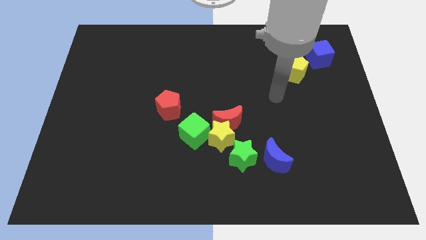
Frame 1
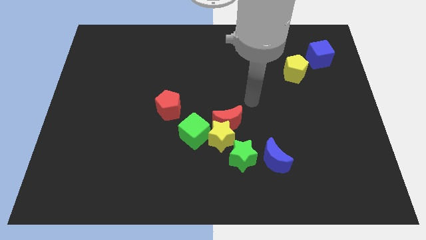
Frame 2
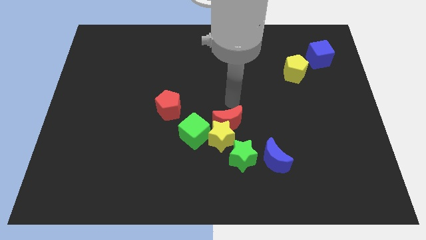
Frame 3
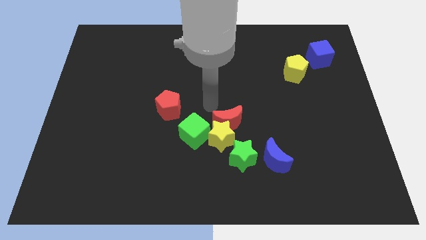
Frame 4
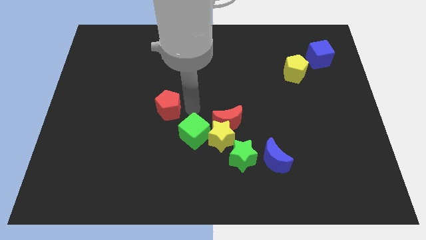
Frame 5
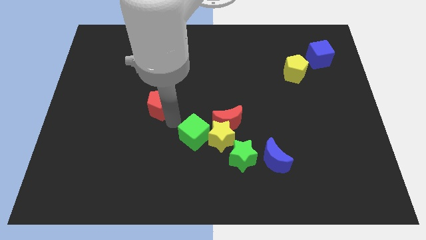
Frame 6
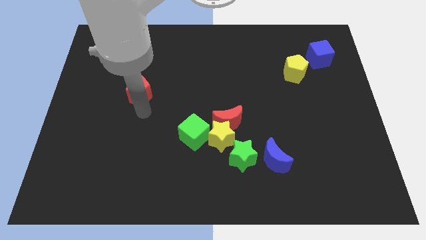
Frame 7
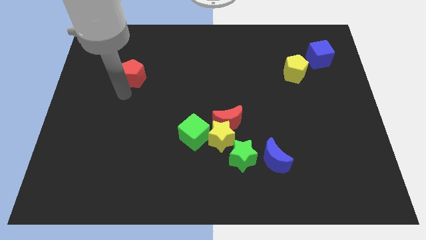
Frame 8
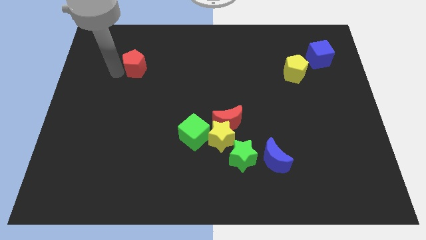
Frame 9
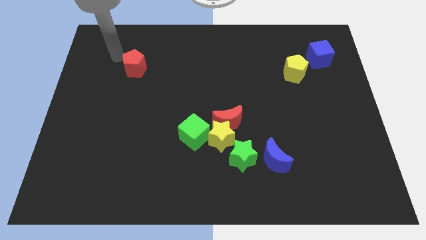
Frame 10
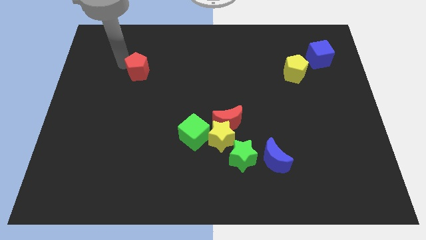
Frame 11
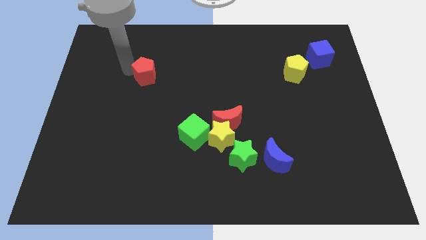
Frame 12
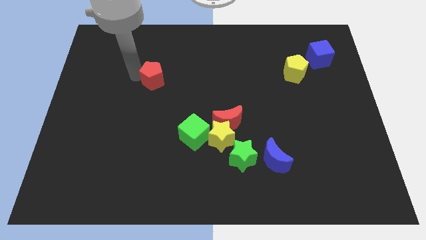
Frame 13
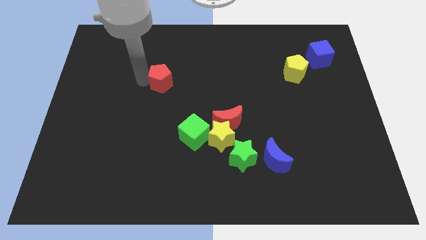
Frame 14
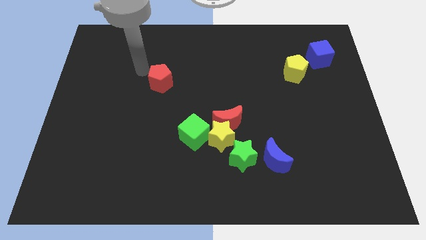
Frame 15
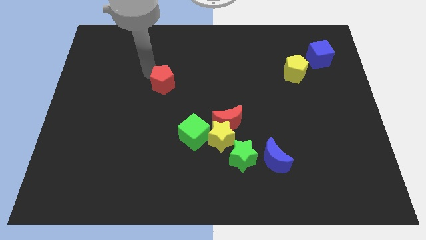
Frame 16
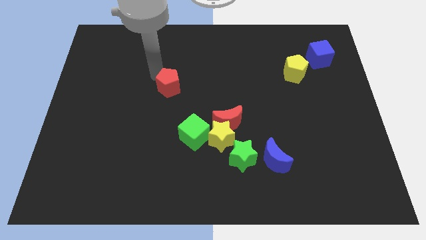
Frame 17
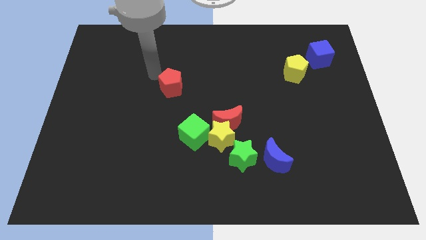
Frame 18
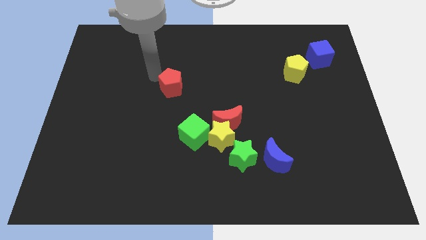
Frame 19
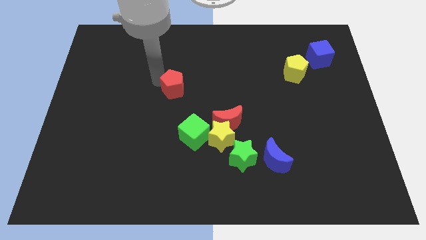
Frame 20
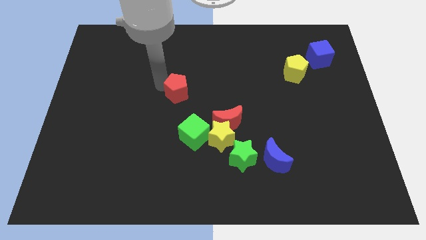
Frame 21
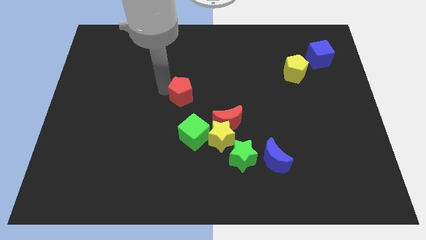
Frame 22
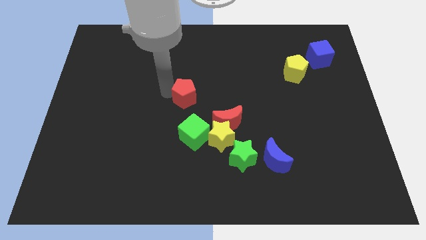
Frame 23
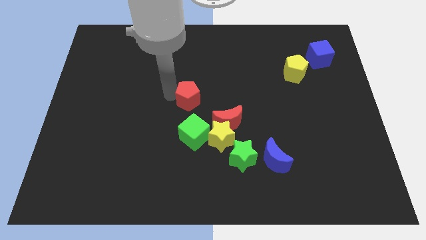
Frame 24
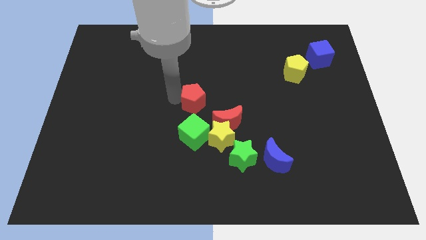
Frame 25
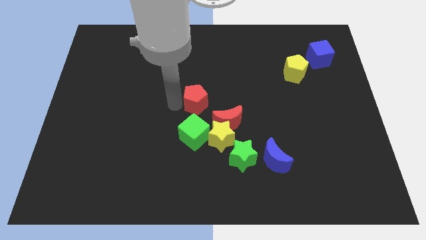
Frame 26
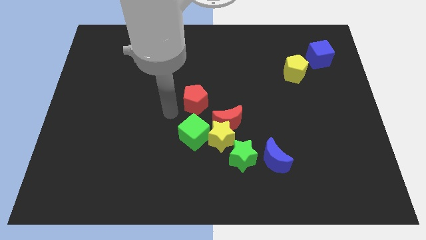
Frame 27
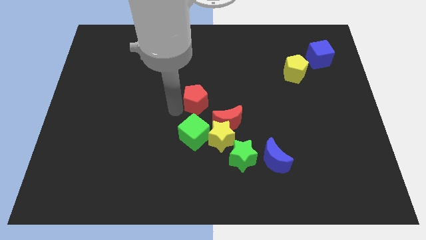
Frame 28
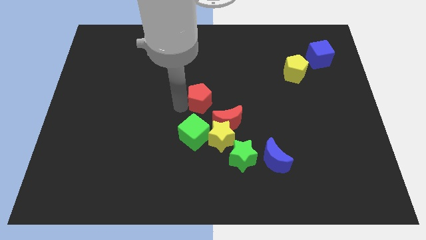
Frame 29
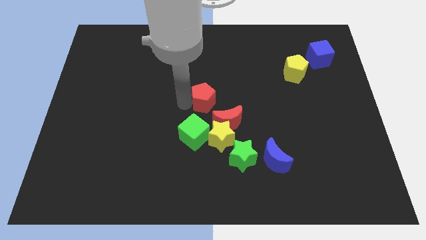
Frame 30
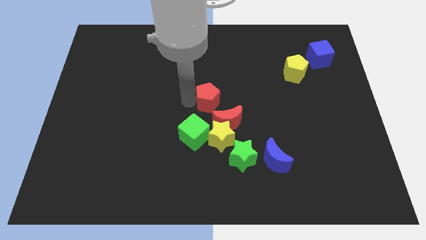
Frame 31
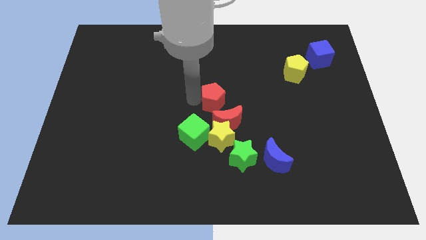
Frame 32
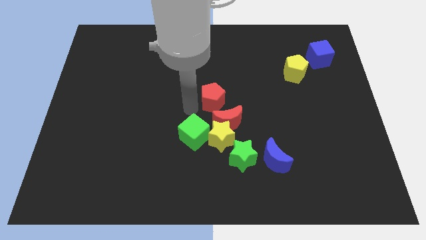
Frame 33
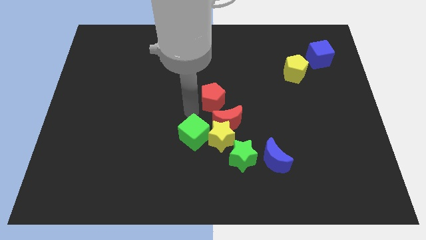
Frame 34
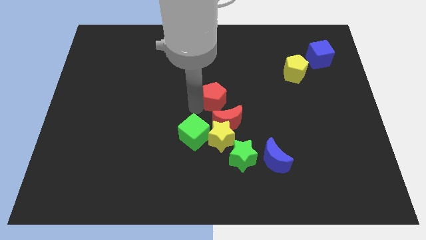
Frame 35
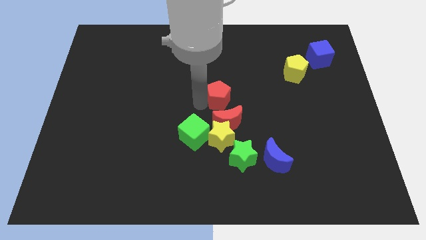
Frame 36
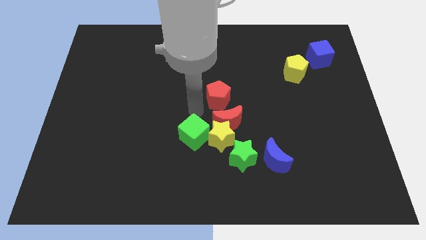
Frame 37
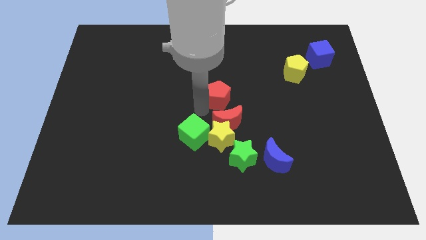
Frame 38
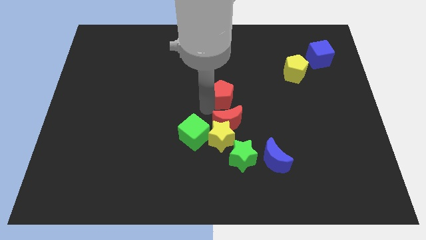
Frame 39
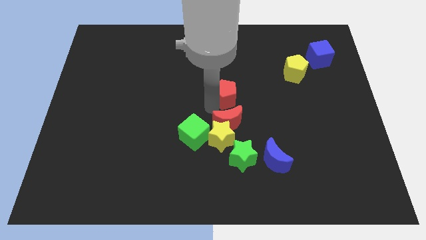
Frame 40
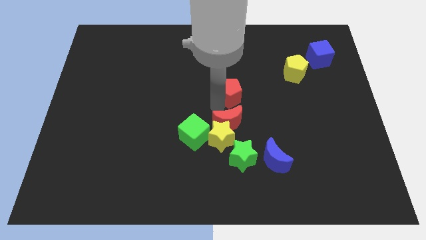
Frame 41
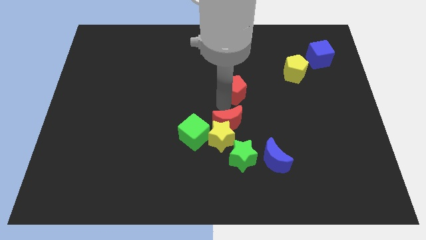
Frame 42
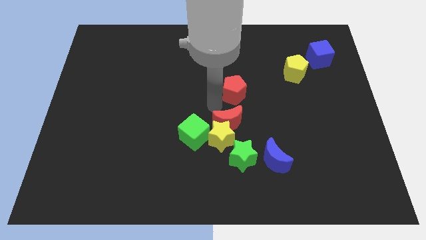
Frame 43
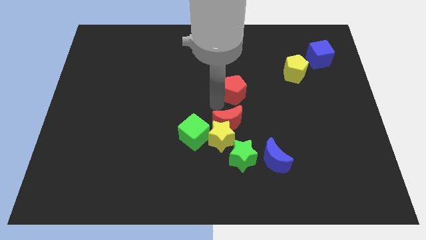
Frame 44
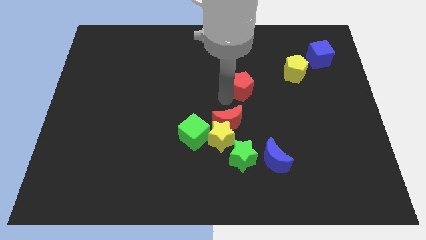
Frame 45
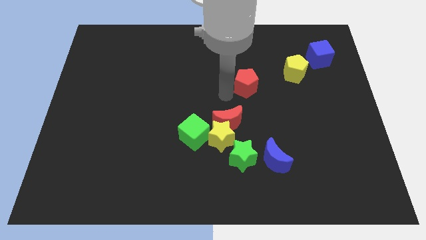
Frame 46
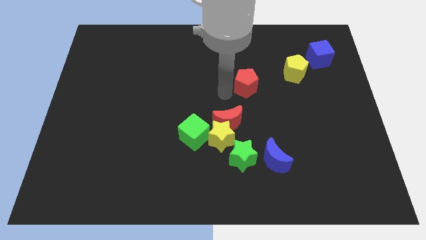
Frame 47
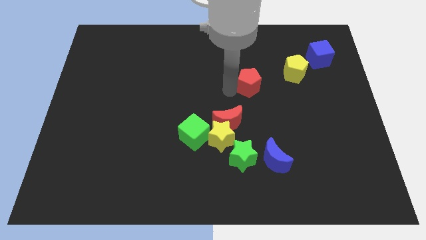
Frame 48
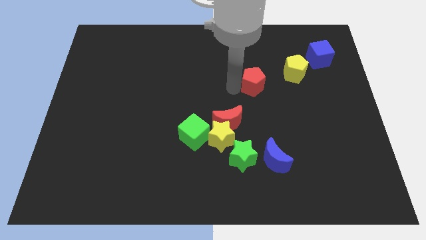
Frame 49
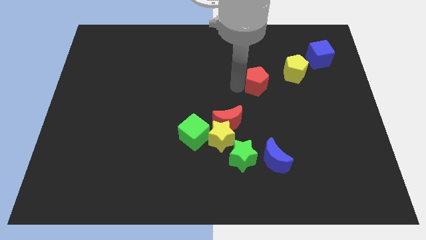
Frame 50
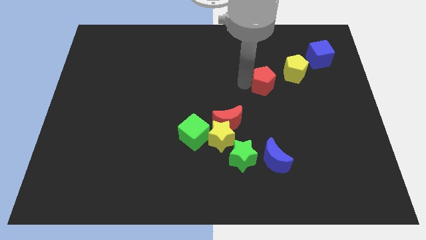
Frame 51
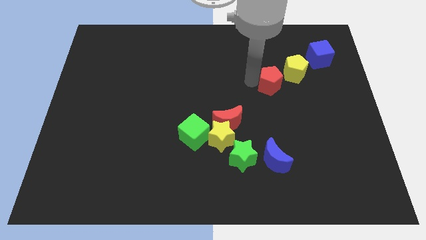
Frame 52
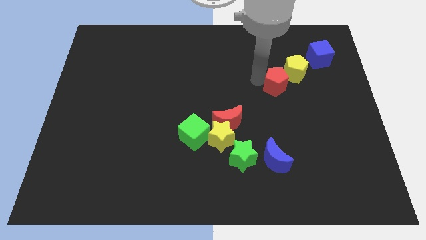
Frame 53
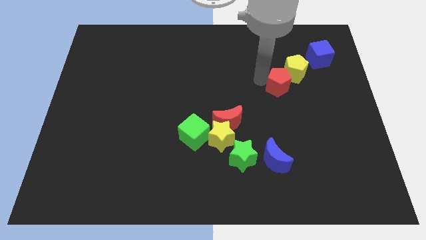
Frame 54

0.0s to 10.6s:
push the red pentagon next to the yellow pentagon

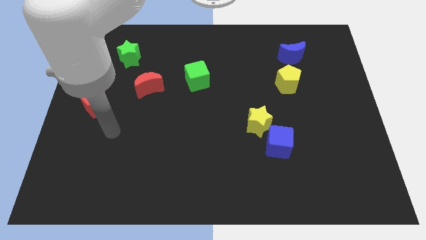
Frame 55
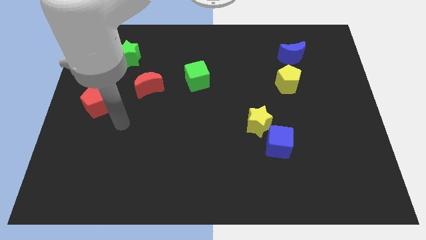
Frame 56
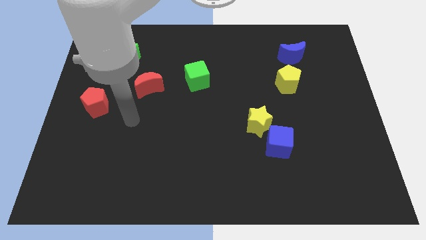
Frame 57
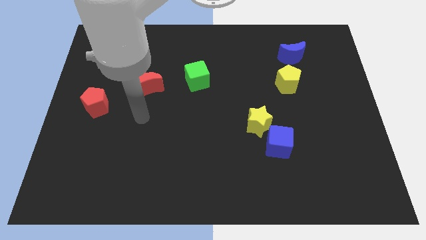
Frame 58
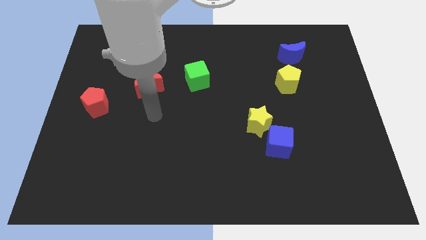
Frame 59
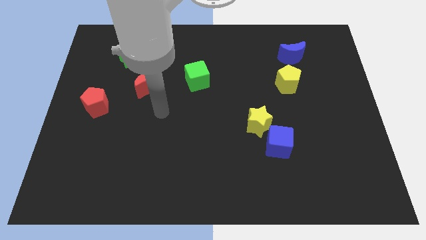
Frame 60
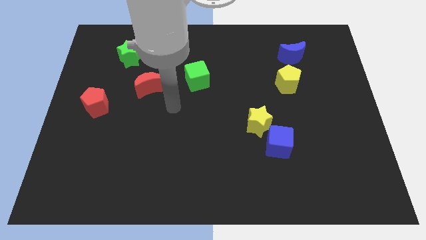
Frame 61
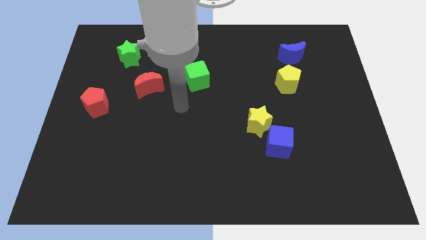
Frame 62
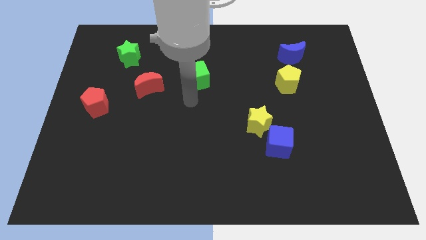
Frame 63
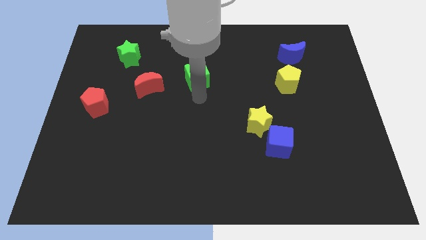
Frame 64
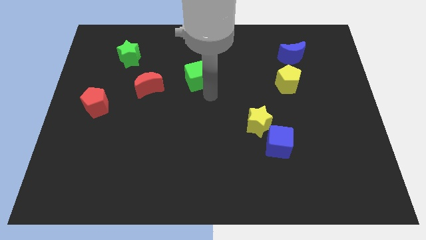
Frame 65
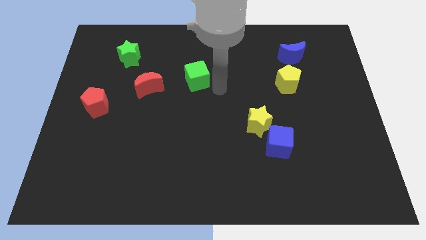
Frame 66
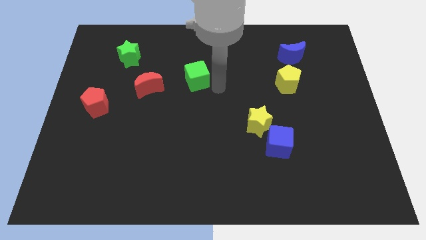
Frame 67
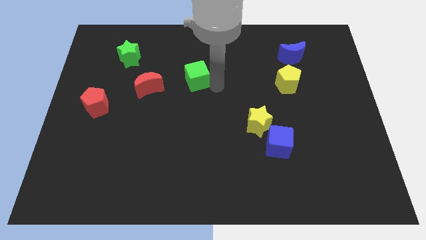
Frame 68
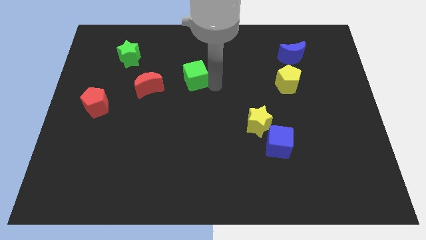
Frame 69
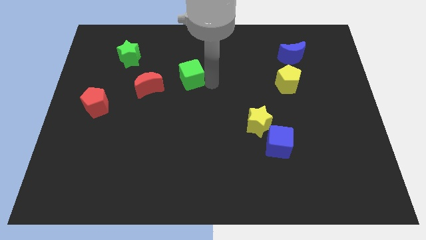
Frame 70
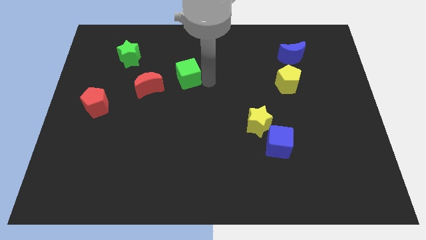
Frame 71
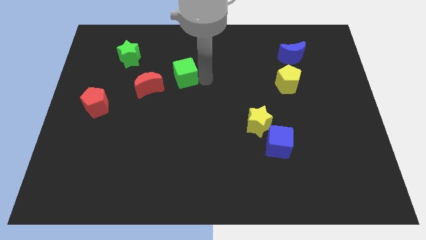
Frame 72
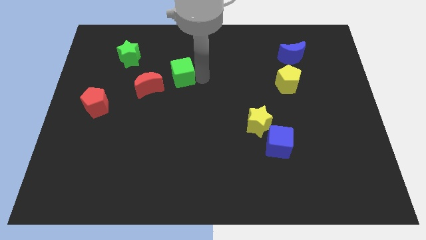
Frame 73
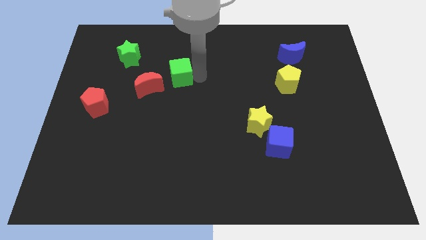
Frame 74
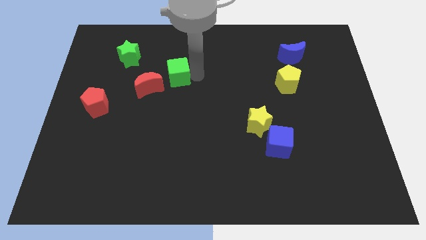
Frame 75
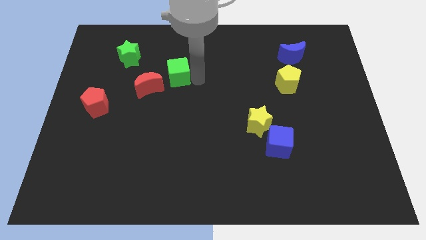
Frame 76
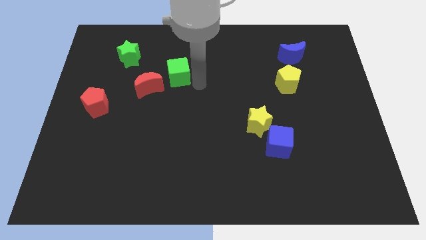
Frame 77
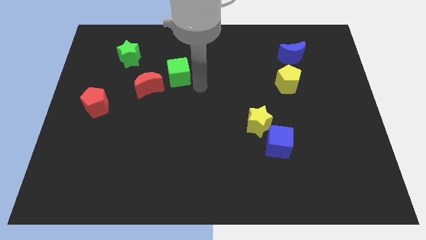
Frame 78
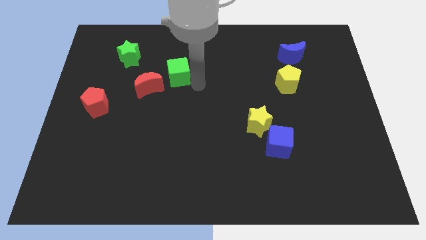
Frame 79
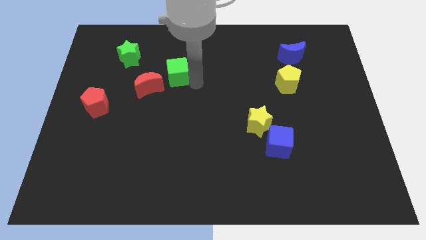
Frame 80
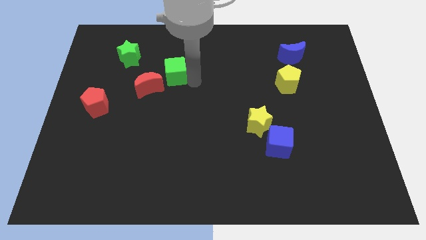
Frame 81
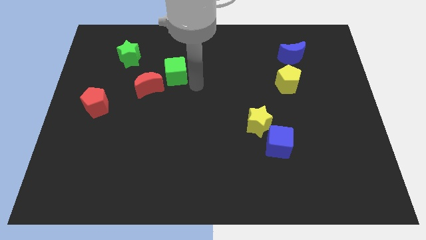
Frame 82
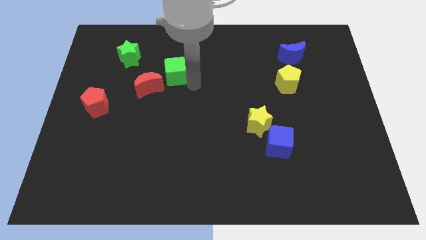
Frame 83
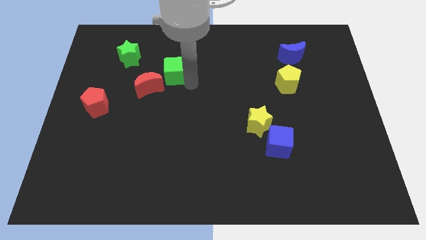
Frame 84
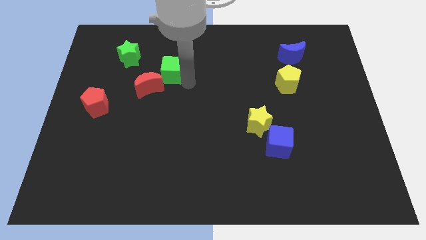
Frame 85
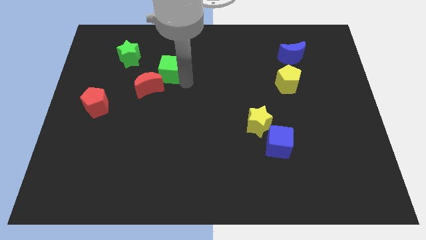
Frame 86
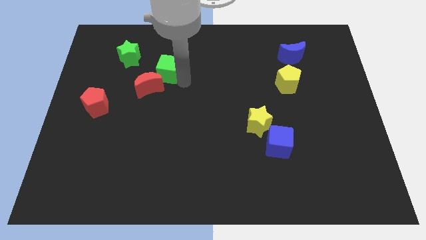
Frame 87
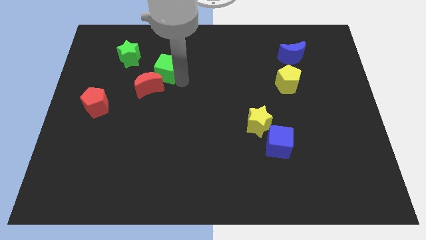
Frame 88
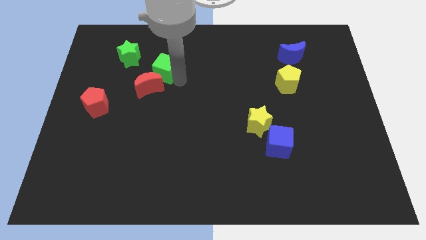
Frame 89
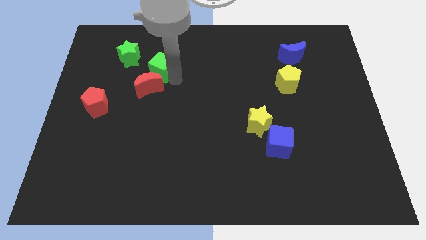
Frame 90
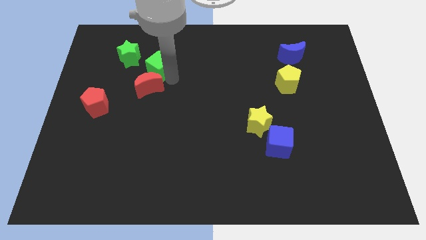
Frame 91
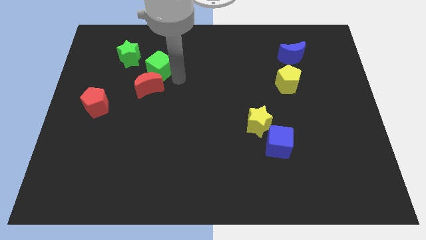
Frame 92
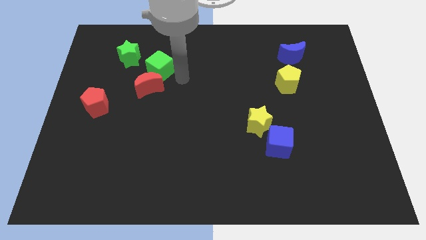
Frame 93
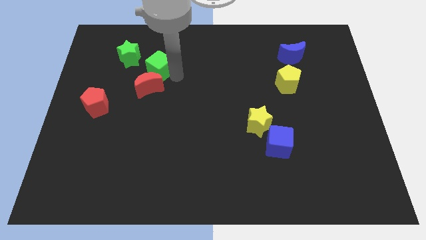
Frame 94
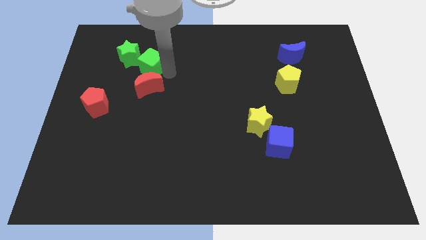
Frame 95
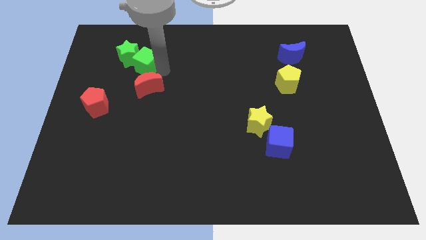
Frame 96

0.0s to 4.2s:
push the green cube to the green star
